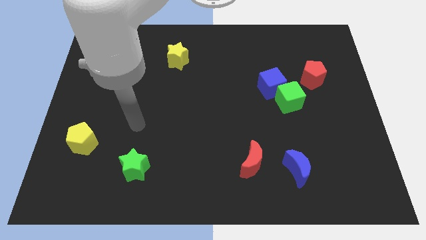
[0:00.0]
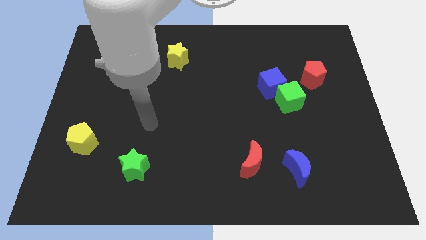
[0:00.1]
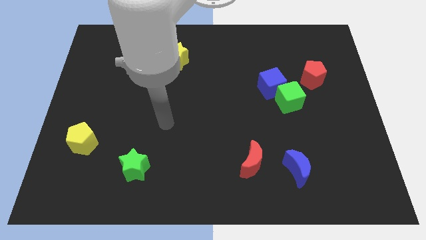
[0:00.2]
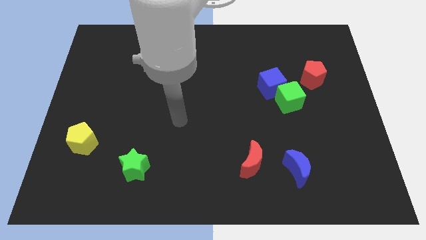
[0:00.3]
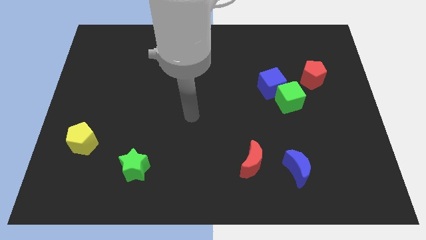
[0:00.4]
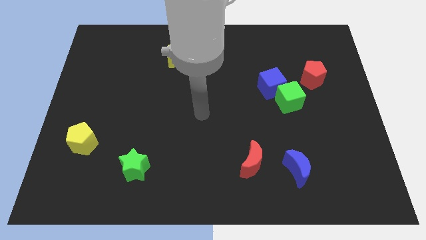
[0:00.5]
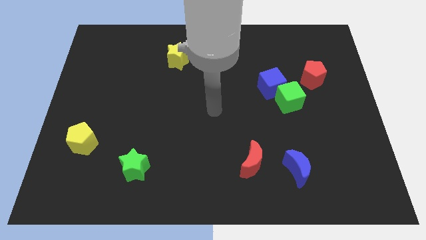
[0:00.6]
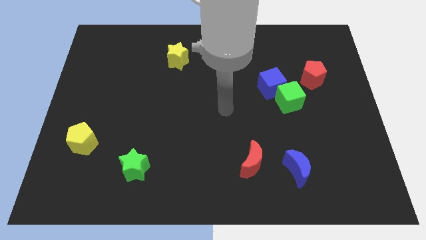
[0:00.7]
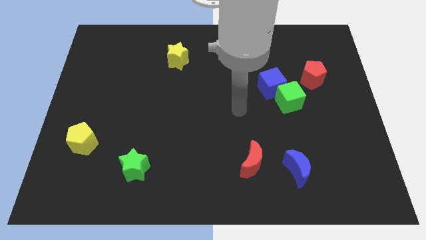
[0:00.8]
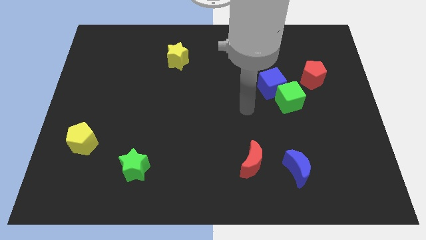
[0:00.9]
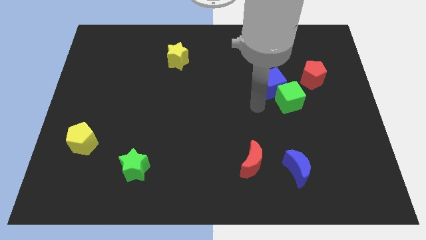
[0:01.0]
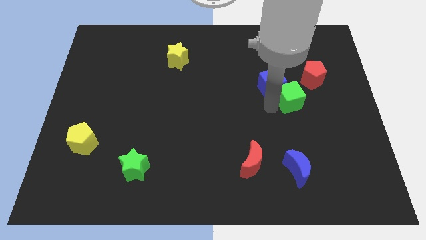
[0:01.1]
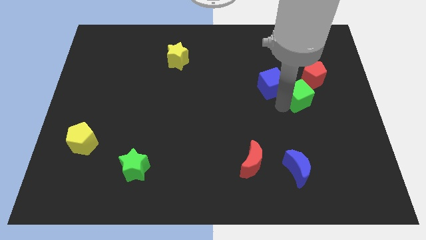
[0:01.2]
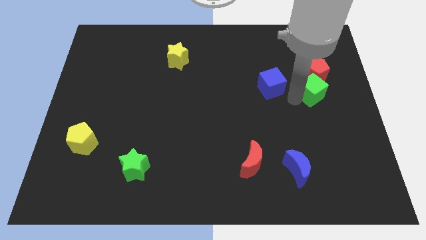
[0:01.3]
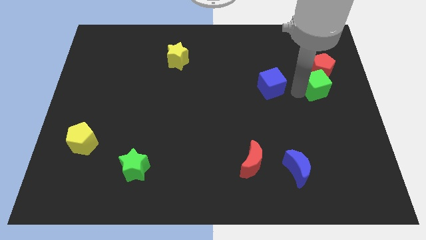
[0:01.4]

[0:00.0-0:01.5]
separate the blue cube from the green cube

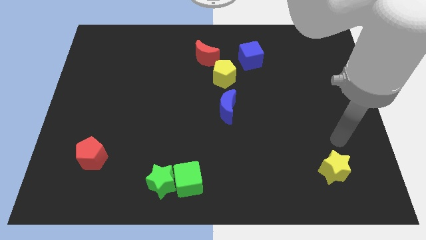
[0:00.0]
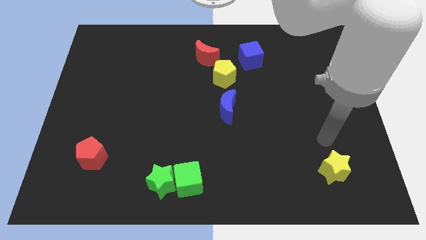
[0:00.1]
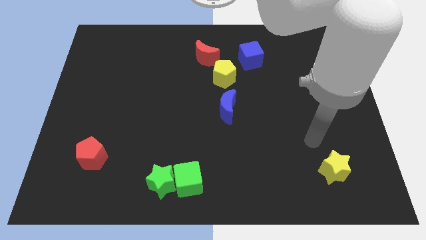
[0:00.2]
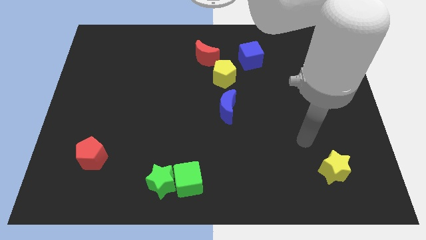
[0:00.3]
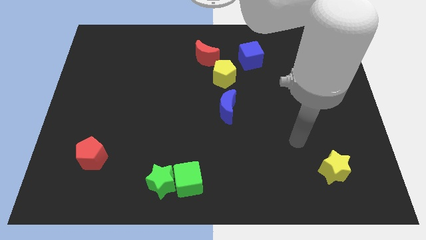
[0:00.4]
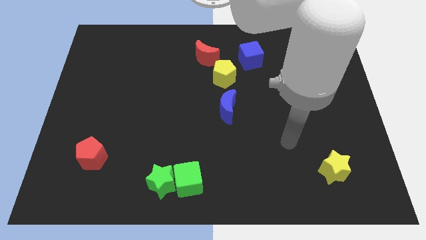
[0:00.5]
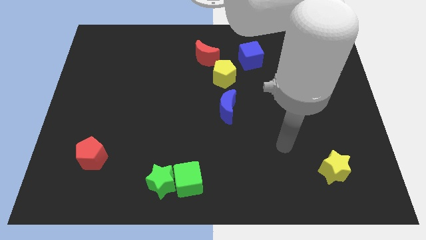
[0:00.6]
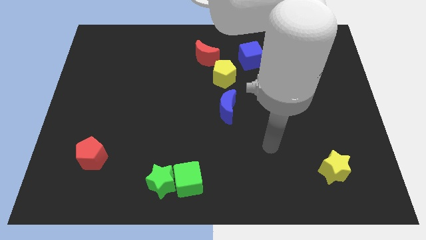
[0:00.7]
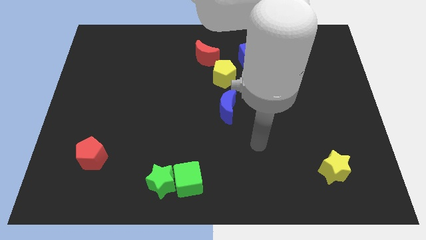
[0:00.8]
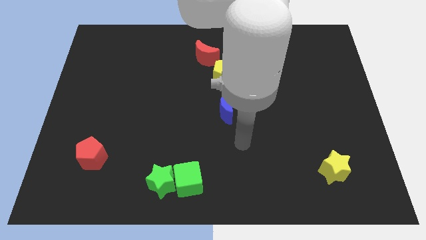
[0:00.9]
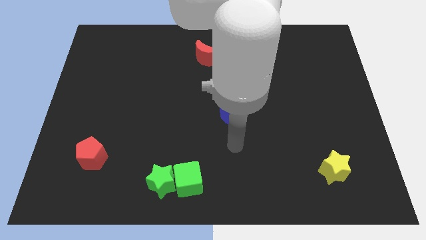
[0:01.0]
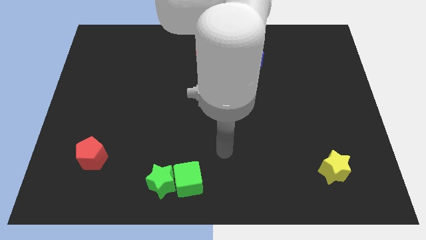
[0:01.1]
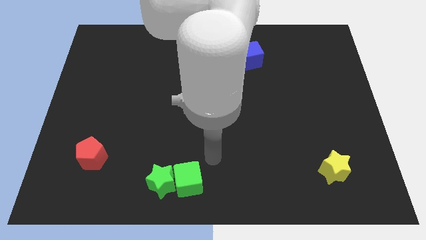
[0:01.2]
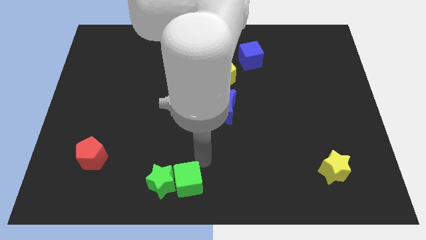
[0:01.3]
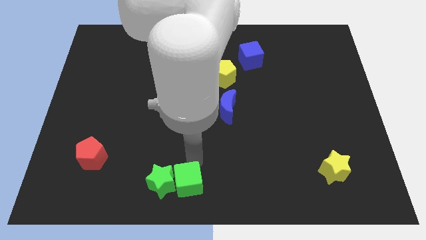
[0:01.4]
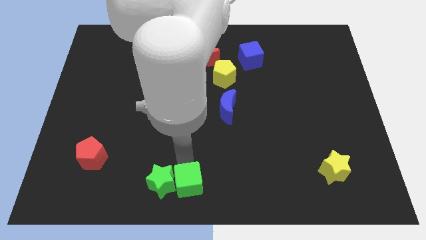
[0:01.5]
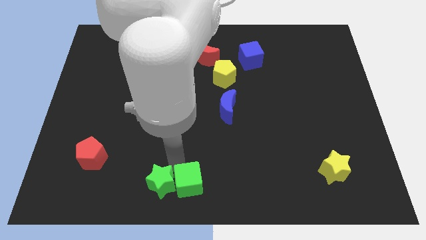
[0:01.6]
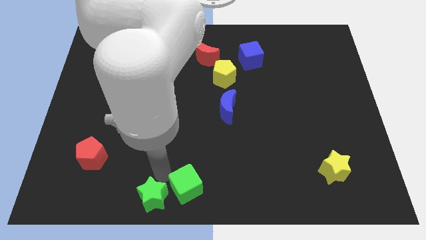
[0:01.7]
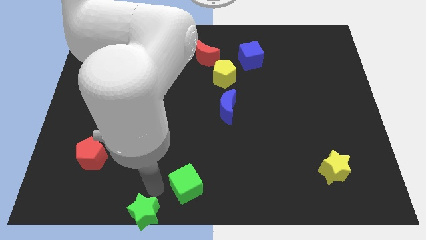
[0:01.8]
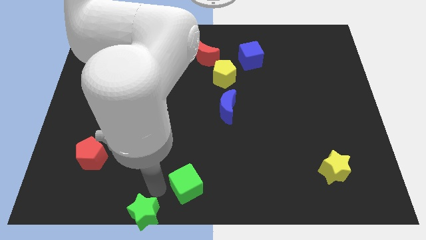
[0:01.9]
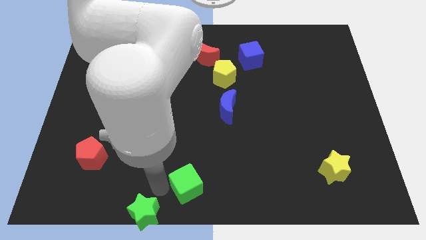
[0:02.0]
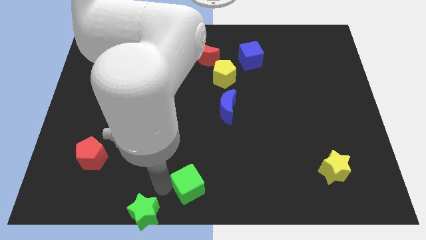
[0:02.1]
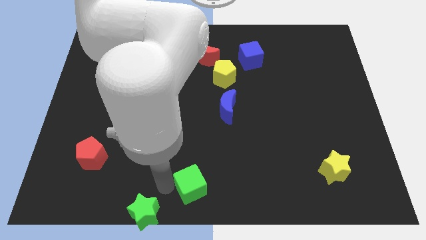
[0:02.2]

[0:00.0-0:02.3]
move the green cube away from the green star

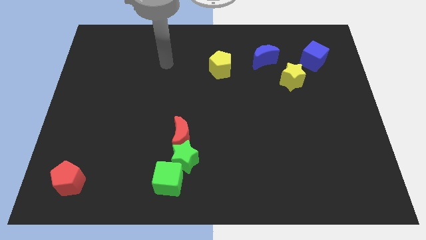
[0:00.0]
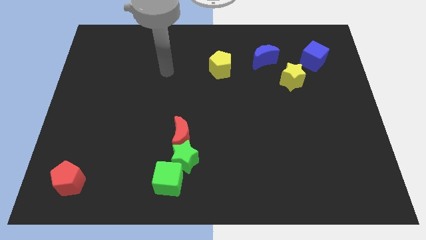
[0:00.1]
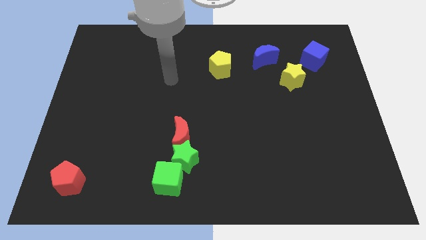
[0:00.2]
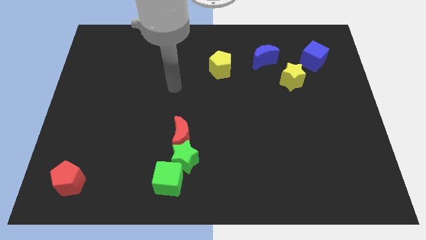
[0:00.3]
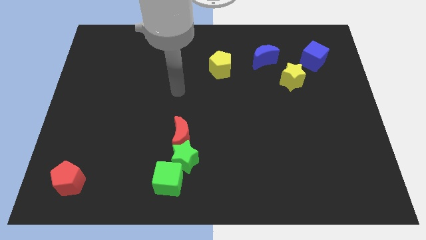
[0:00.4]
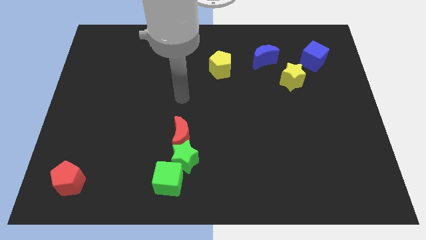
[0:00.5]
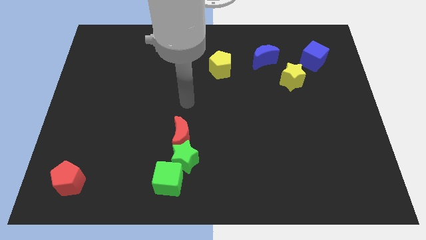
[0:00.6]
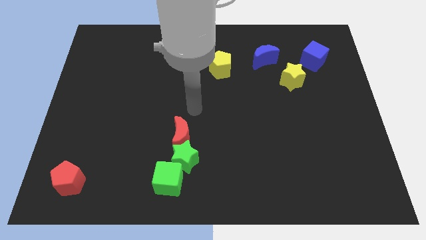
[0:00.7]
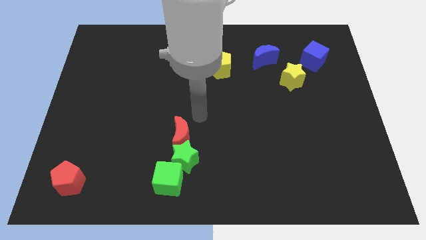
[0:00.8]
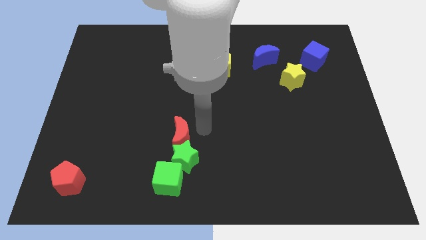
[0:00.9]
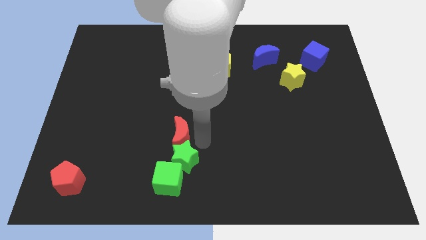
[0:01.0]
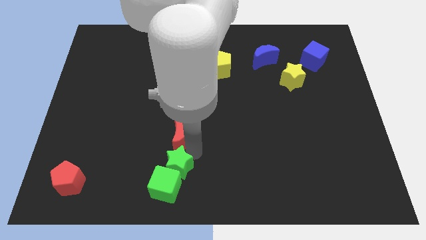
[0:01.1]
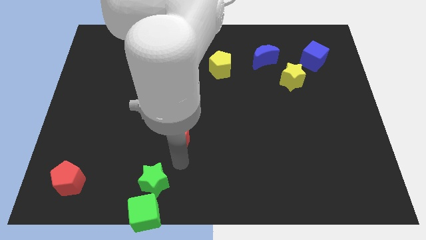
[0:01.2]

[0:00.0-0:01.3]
separate the red moon from the green star

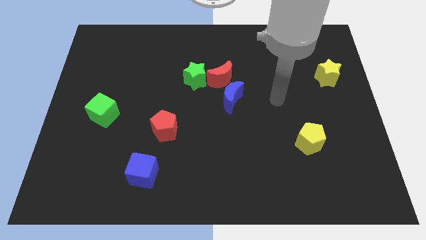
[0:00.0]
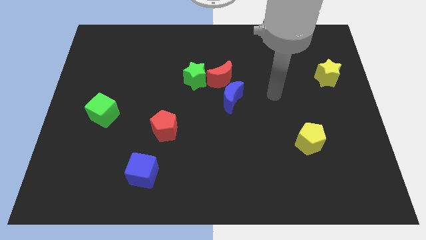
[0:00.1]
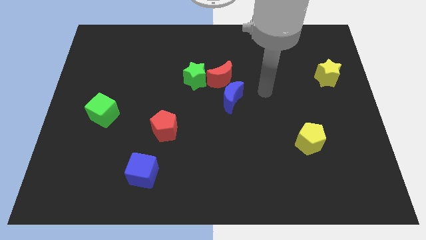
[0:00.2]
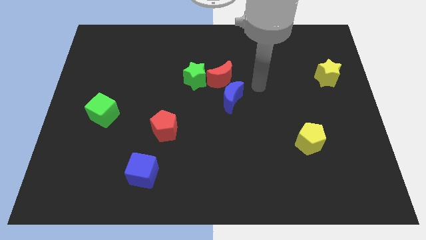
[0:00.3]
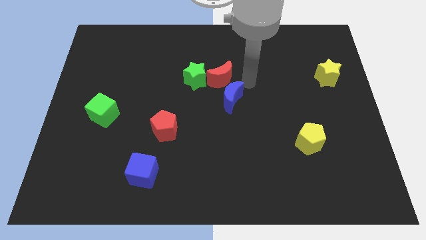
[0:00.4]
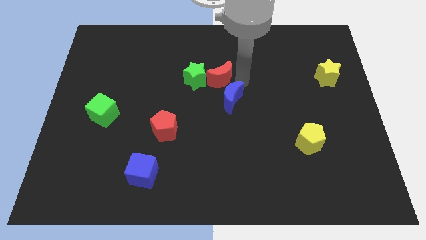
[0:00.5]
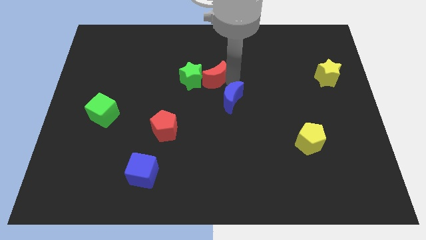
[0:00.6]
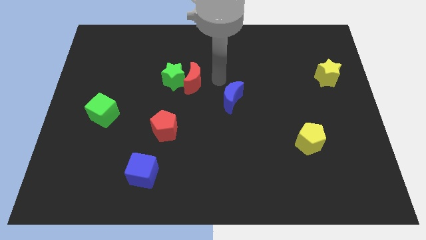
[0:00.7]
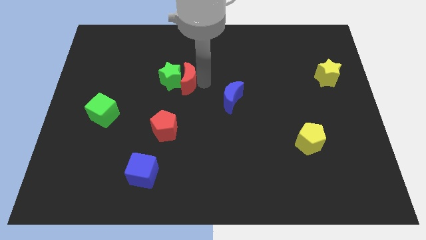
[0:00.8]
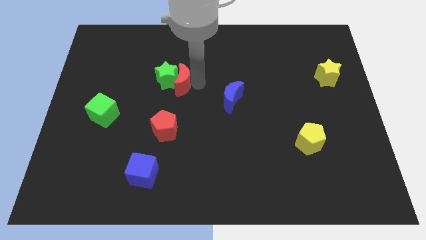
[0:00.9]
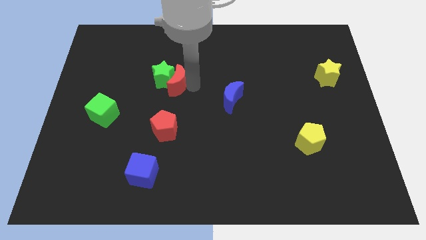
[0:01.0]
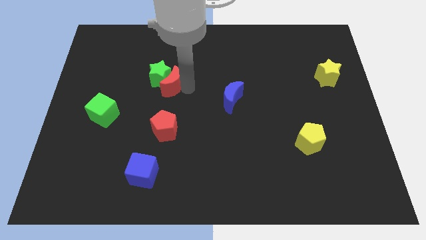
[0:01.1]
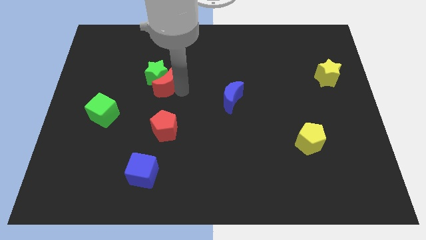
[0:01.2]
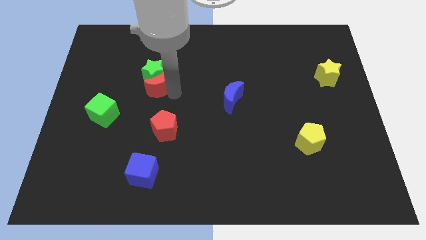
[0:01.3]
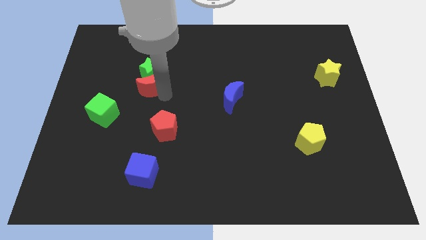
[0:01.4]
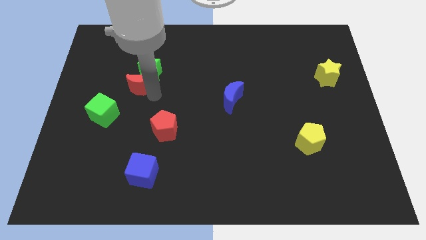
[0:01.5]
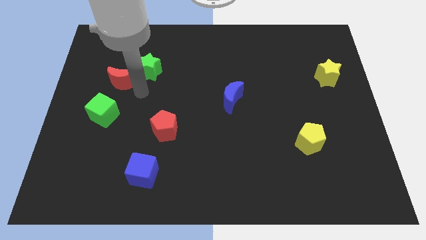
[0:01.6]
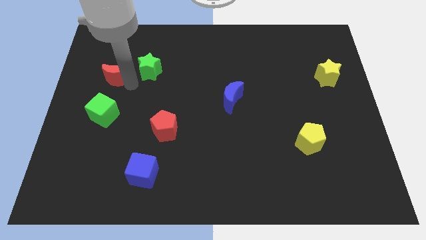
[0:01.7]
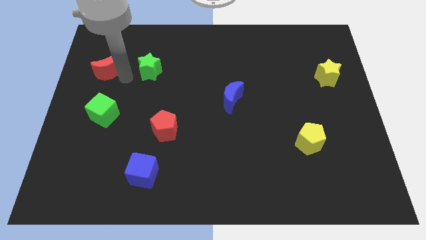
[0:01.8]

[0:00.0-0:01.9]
separate the green star from the red moon

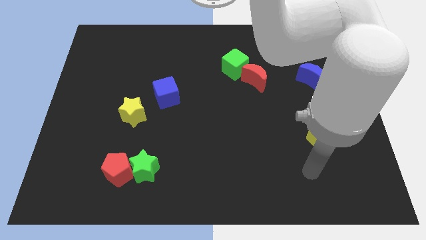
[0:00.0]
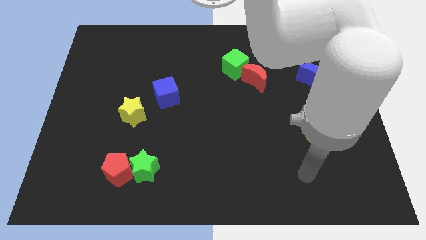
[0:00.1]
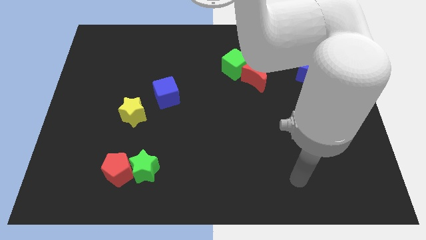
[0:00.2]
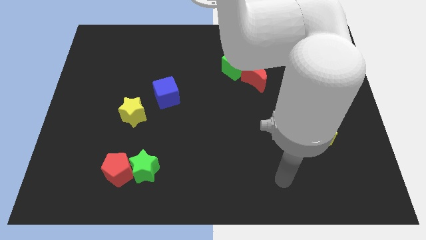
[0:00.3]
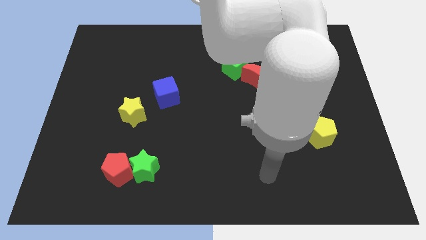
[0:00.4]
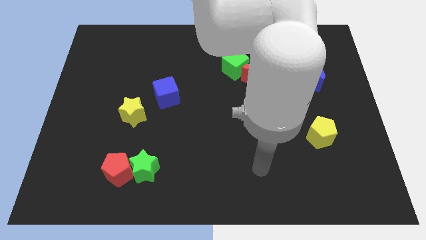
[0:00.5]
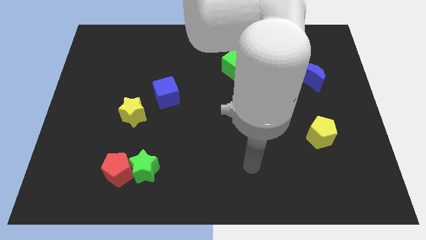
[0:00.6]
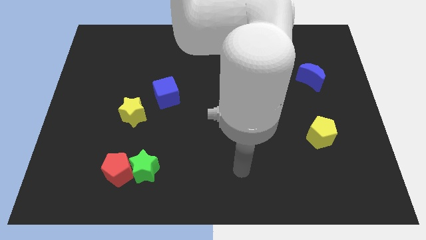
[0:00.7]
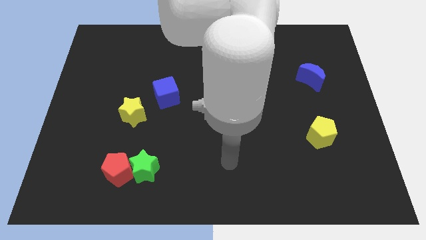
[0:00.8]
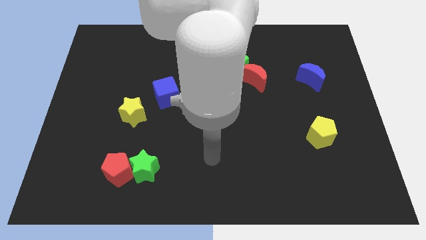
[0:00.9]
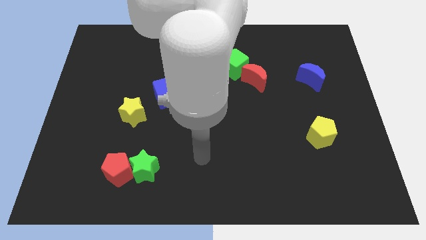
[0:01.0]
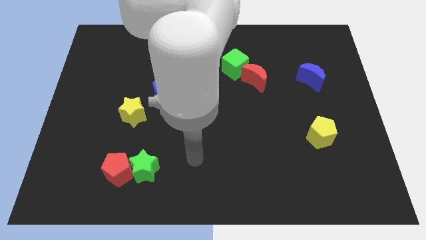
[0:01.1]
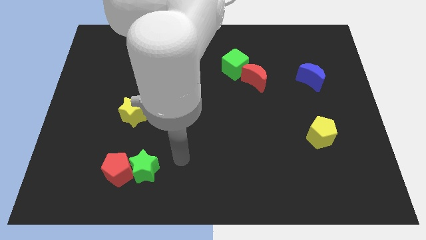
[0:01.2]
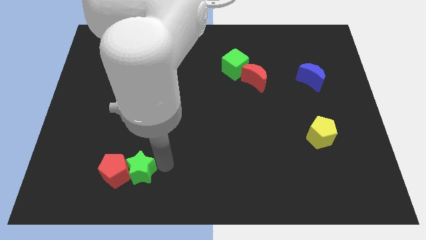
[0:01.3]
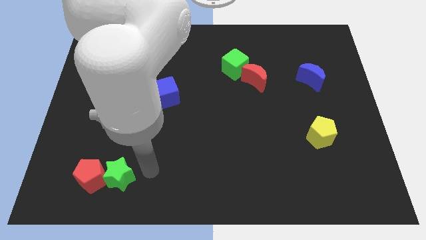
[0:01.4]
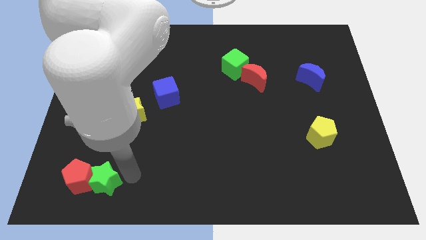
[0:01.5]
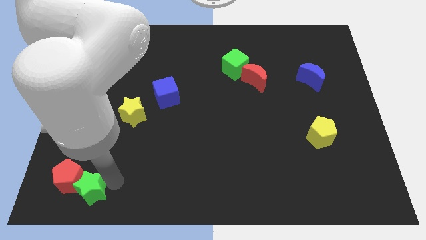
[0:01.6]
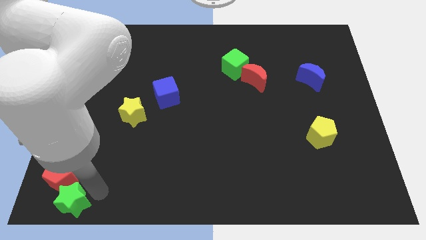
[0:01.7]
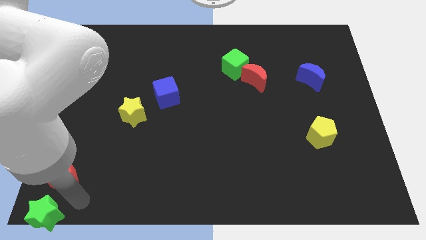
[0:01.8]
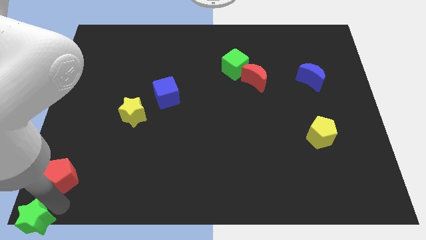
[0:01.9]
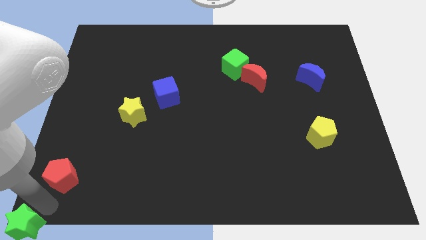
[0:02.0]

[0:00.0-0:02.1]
separate the red pentagon from the green star

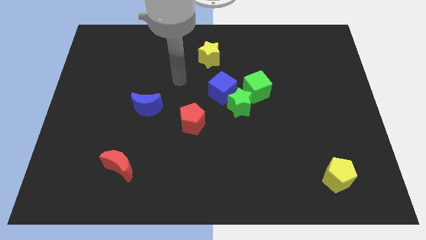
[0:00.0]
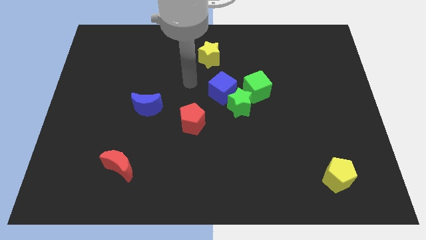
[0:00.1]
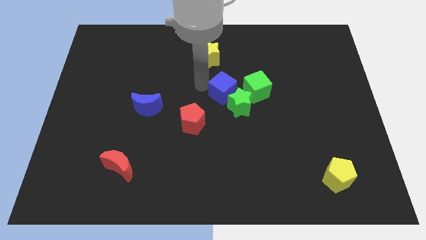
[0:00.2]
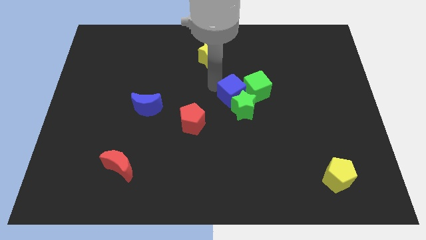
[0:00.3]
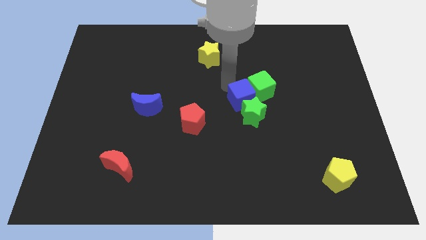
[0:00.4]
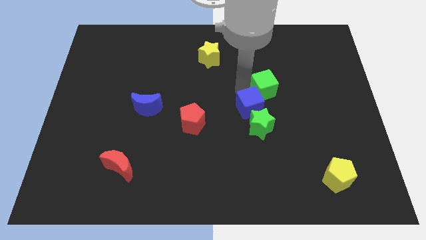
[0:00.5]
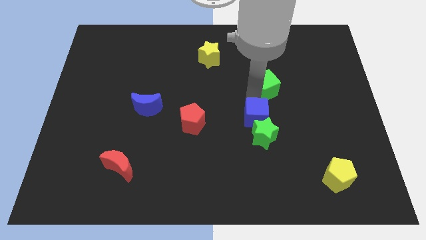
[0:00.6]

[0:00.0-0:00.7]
pull the green star apart from the blue cube and green cube
